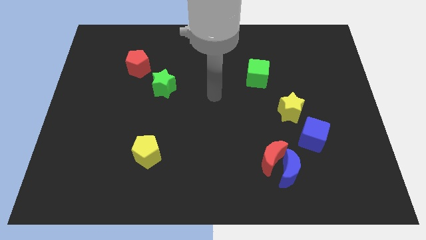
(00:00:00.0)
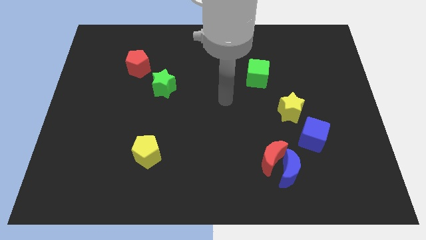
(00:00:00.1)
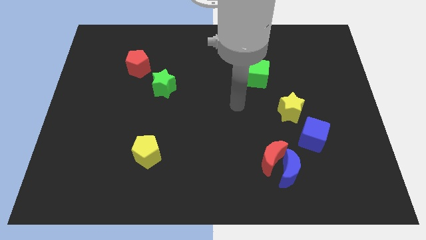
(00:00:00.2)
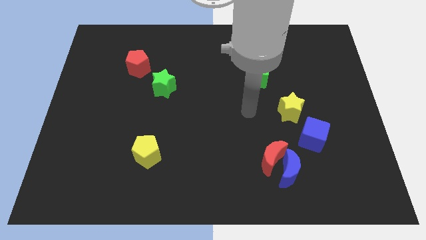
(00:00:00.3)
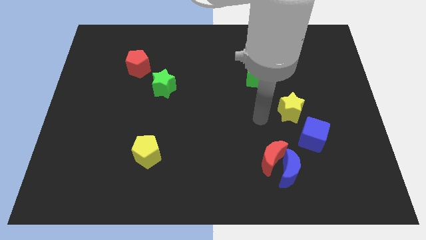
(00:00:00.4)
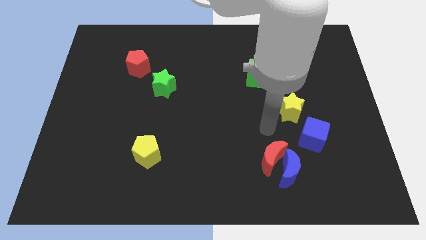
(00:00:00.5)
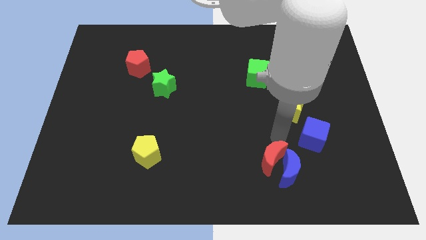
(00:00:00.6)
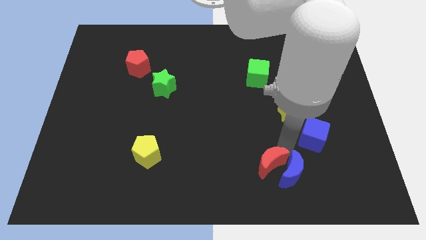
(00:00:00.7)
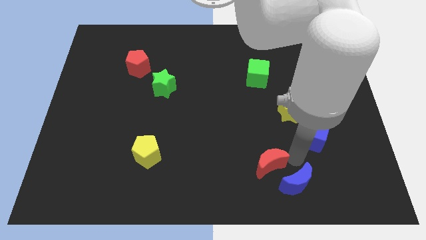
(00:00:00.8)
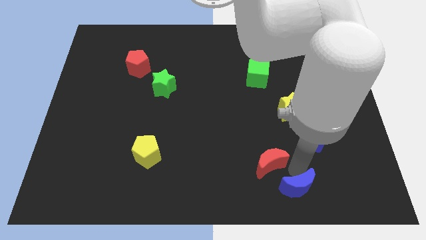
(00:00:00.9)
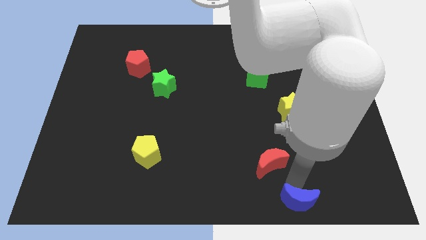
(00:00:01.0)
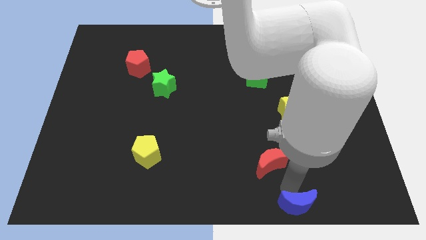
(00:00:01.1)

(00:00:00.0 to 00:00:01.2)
pull the red moon apart from the blue moon

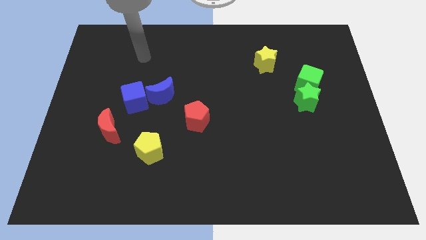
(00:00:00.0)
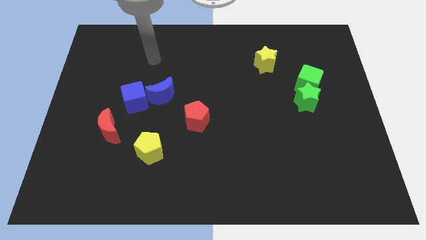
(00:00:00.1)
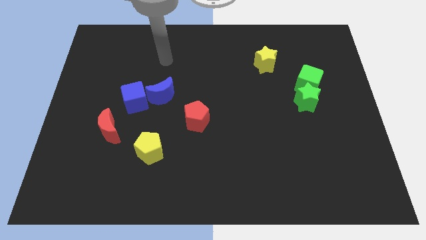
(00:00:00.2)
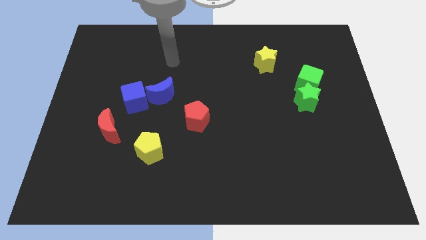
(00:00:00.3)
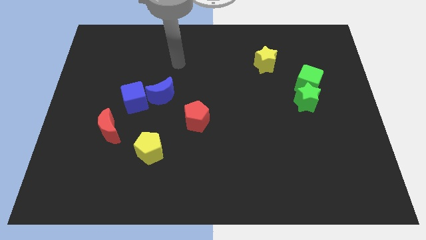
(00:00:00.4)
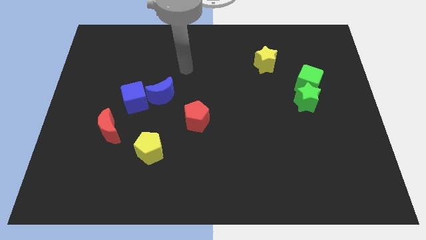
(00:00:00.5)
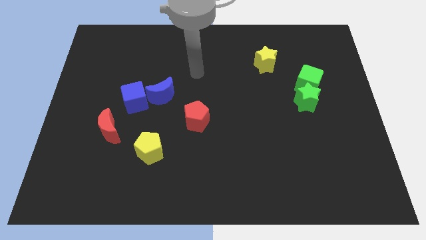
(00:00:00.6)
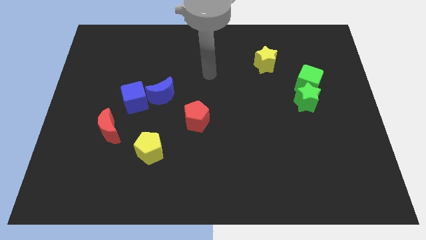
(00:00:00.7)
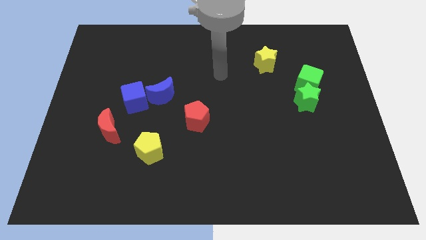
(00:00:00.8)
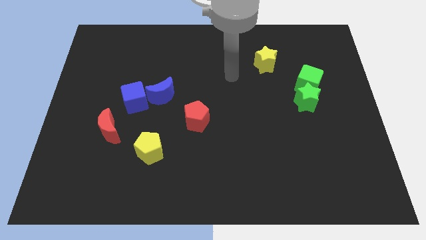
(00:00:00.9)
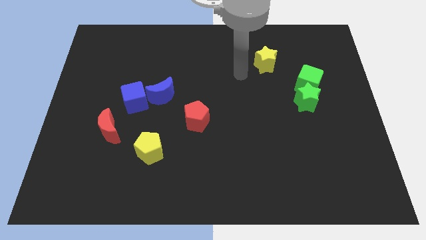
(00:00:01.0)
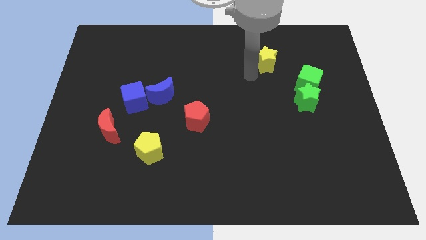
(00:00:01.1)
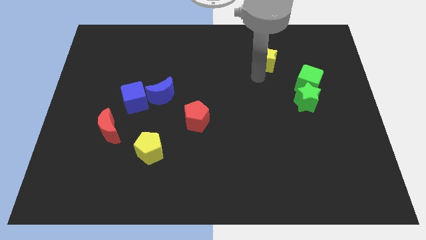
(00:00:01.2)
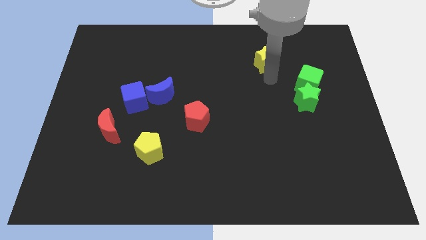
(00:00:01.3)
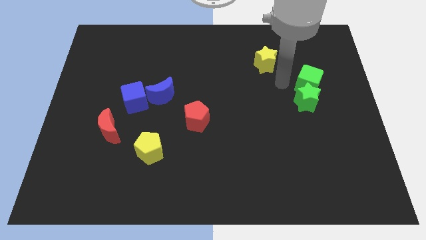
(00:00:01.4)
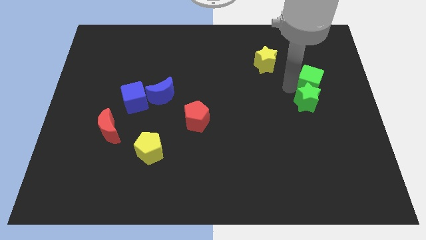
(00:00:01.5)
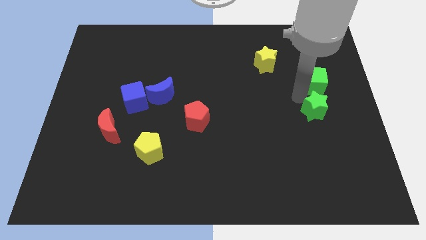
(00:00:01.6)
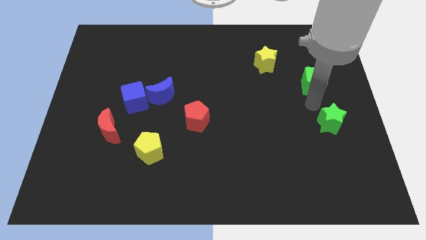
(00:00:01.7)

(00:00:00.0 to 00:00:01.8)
separate the green cube from the green star

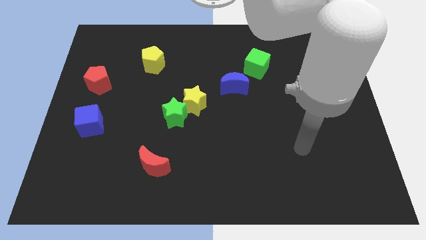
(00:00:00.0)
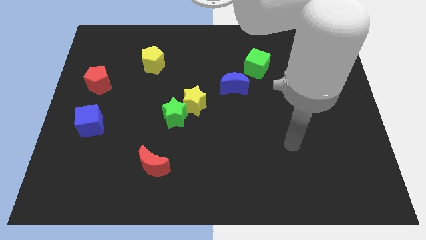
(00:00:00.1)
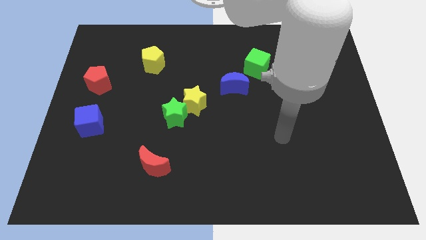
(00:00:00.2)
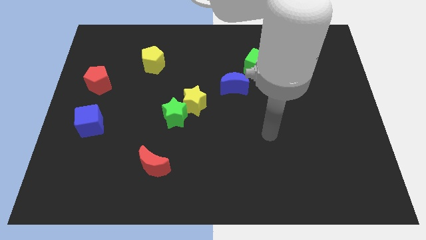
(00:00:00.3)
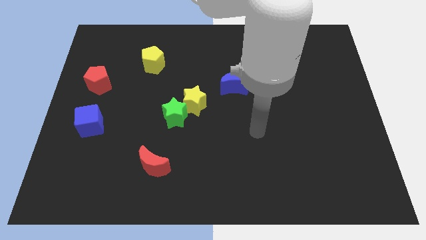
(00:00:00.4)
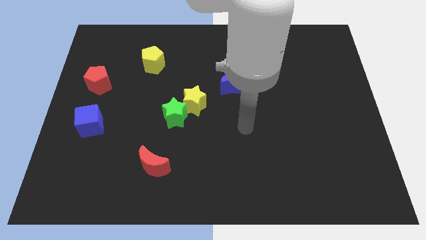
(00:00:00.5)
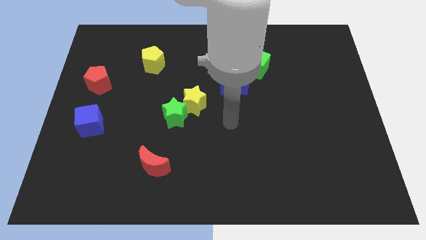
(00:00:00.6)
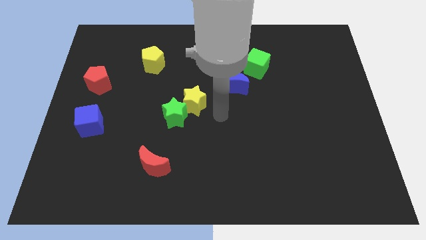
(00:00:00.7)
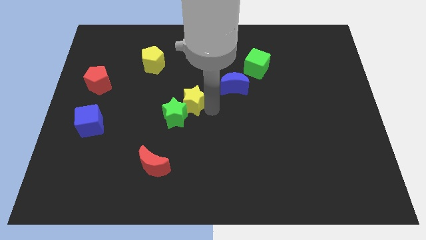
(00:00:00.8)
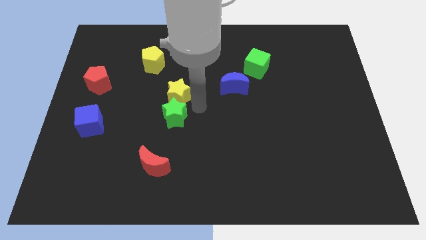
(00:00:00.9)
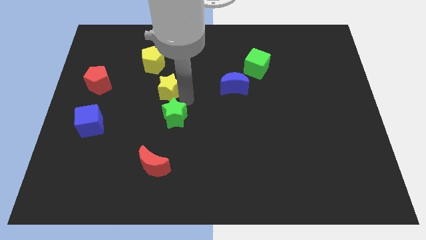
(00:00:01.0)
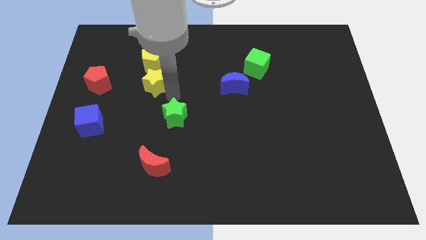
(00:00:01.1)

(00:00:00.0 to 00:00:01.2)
pull the green star apart from the yellow star

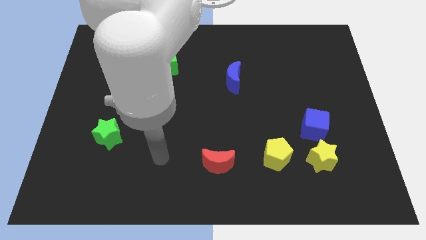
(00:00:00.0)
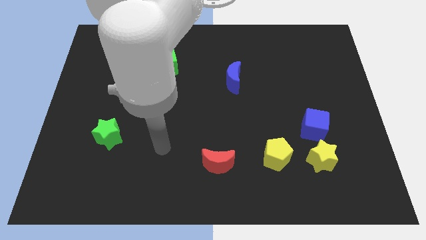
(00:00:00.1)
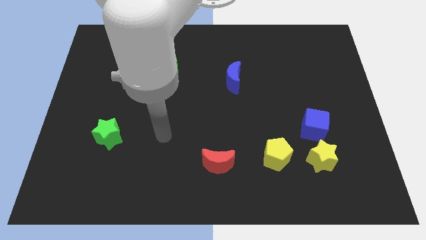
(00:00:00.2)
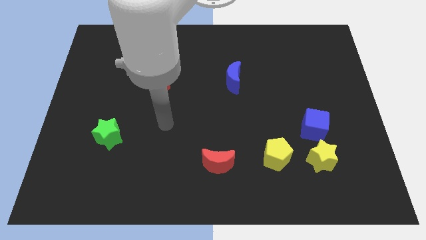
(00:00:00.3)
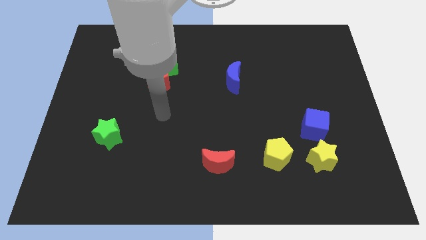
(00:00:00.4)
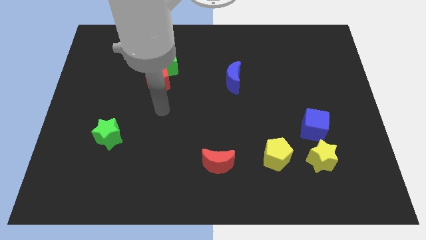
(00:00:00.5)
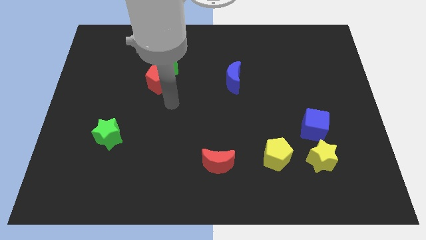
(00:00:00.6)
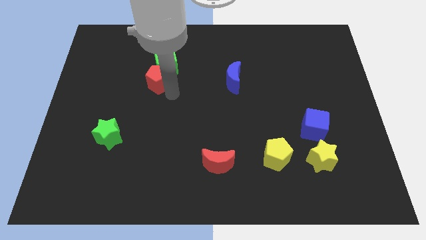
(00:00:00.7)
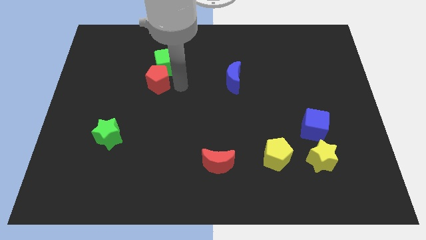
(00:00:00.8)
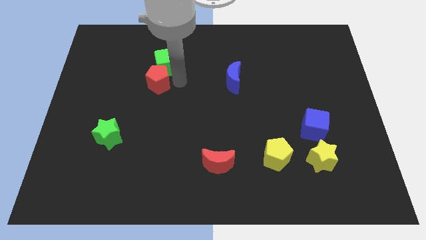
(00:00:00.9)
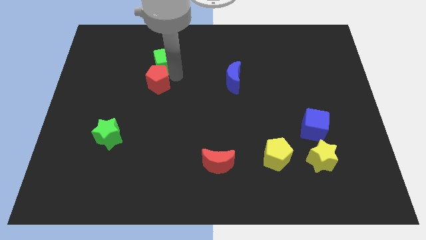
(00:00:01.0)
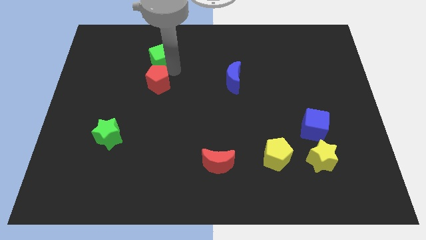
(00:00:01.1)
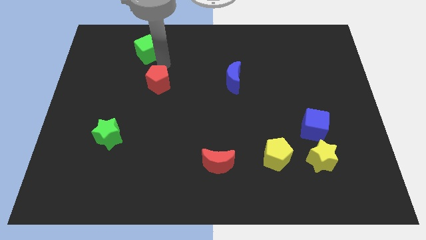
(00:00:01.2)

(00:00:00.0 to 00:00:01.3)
move the red pentagon away from the green cube

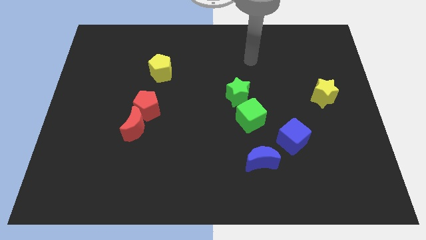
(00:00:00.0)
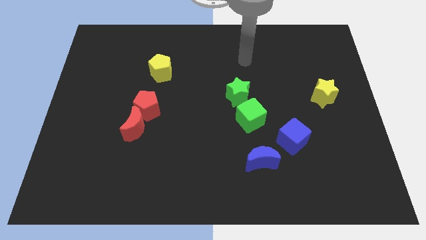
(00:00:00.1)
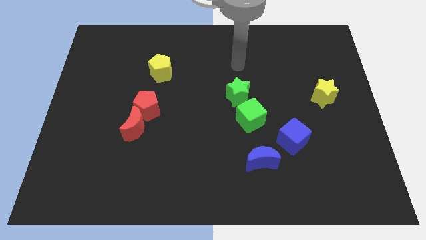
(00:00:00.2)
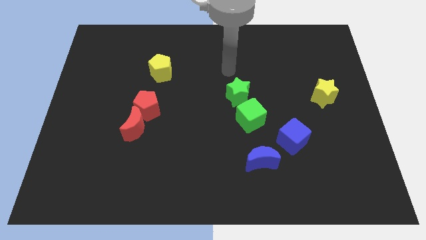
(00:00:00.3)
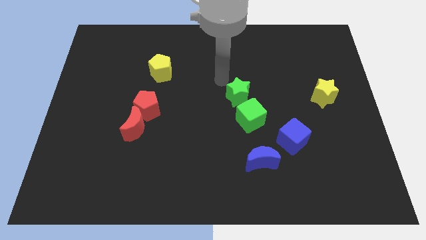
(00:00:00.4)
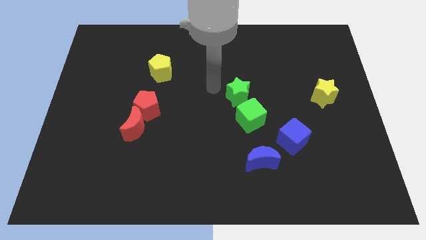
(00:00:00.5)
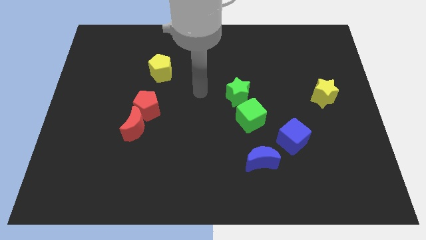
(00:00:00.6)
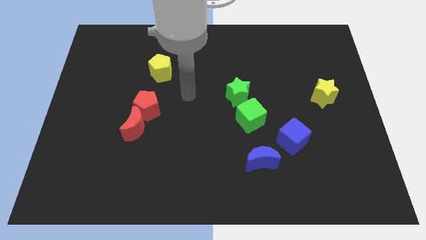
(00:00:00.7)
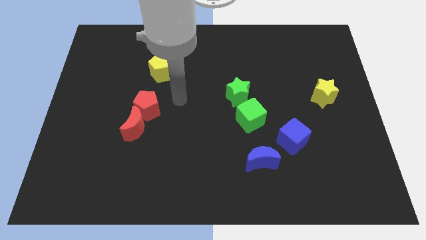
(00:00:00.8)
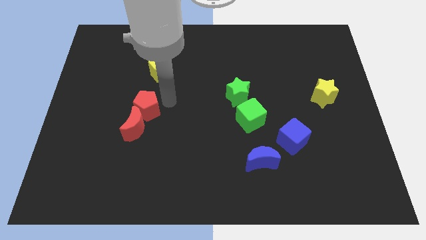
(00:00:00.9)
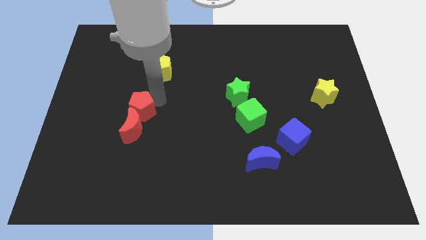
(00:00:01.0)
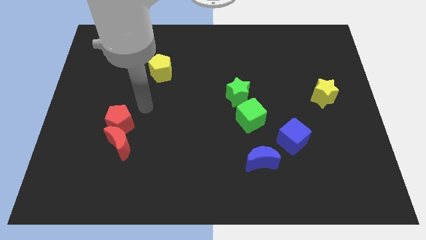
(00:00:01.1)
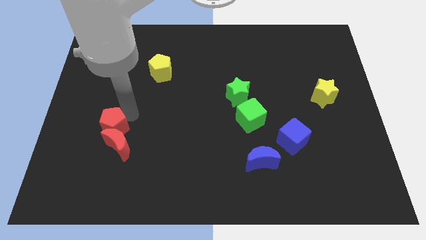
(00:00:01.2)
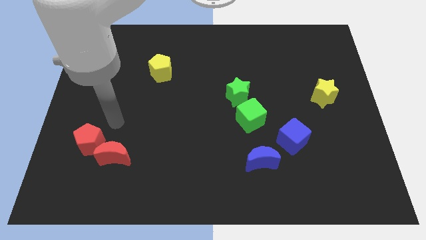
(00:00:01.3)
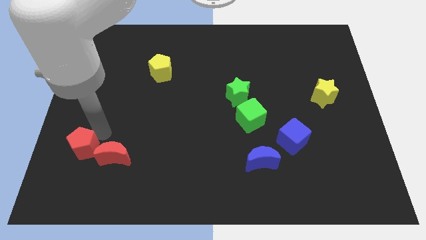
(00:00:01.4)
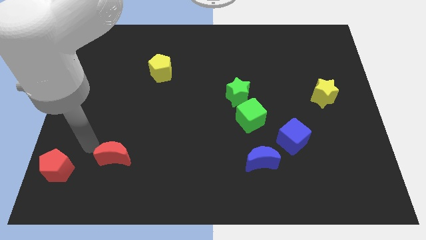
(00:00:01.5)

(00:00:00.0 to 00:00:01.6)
separate the red moon from the red pentagon

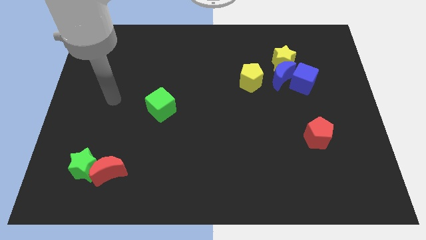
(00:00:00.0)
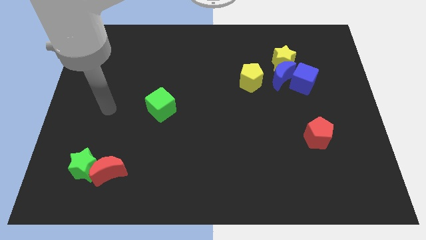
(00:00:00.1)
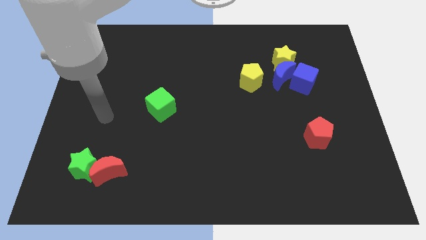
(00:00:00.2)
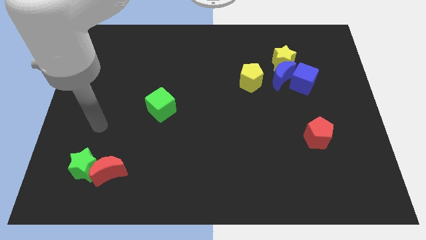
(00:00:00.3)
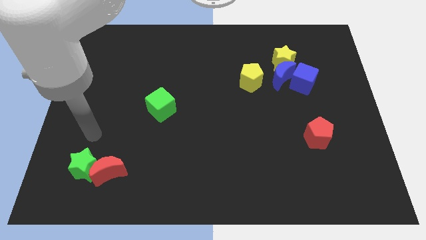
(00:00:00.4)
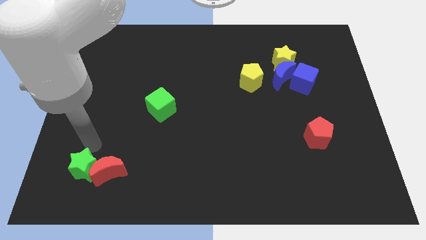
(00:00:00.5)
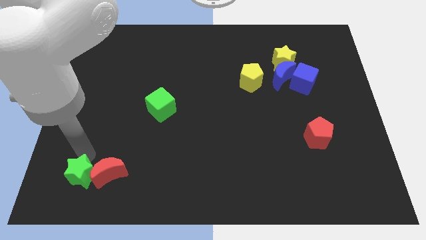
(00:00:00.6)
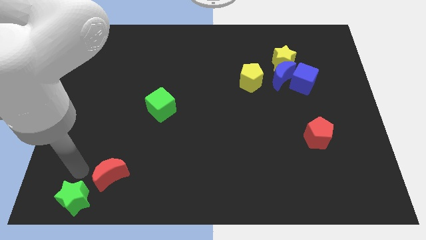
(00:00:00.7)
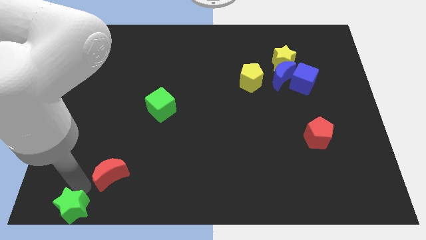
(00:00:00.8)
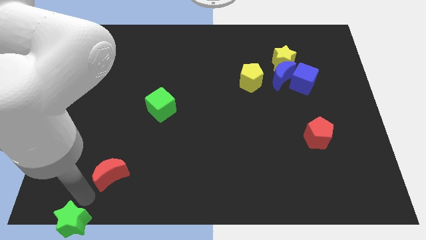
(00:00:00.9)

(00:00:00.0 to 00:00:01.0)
move the red moon away from the green star

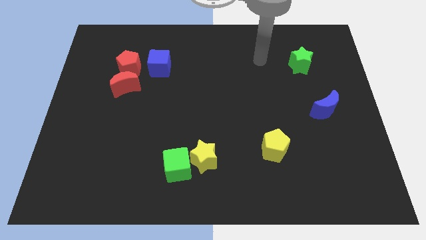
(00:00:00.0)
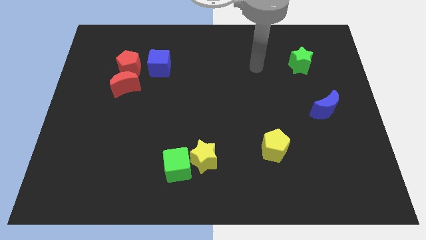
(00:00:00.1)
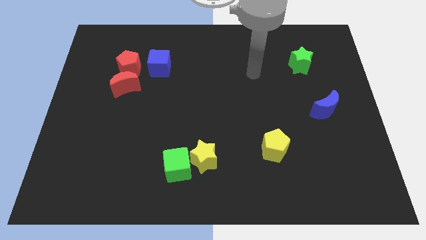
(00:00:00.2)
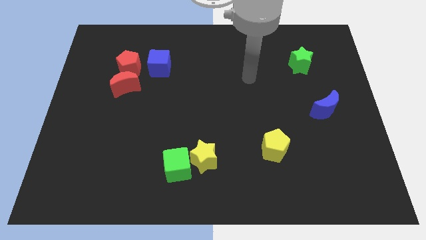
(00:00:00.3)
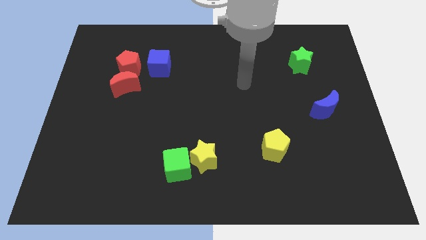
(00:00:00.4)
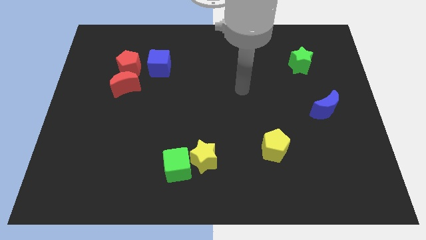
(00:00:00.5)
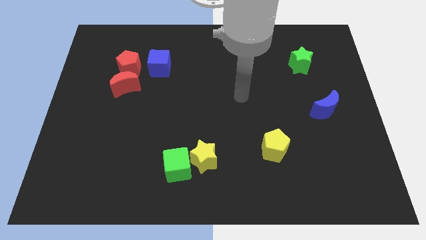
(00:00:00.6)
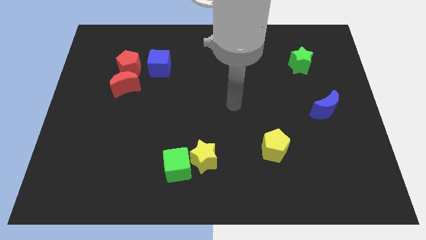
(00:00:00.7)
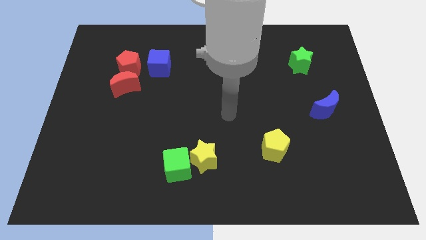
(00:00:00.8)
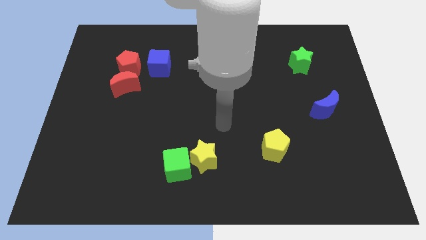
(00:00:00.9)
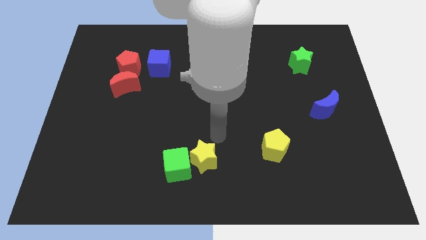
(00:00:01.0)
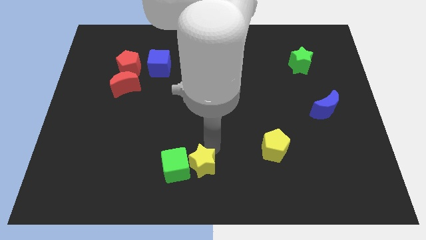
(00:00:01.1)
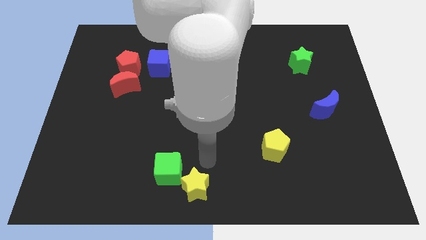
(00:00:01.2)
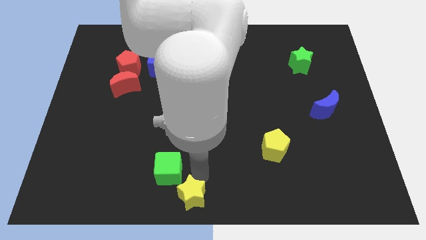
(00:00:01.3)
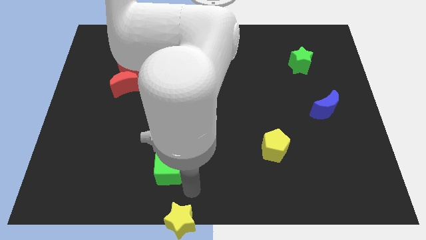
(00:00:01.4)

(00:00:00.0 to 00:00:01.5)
move the green cube away from the yellow star
